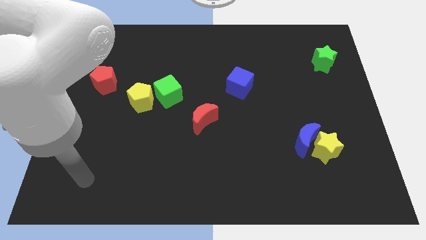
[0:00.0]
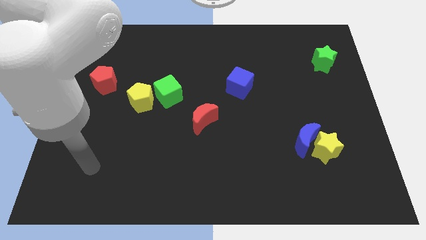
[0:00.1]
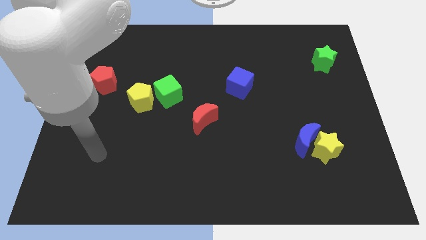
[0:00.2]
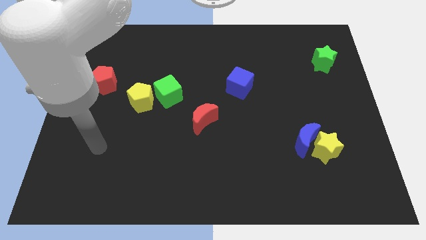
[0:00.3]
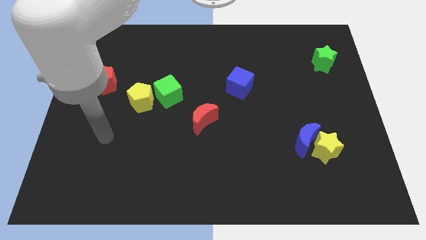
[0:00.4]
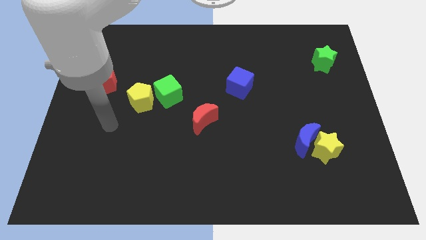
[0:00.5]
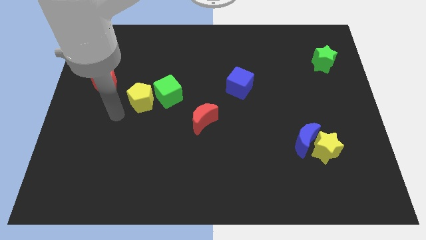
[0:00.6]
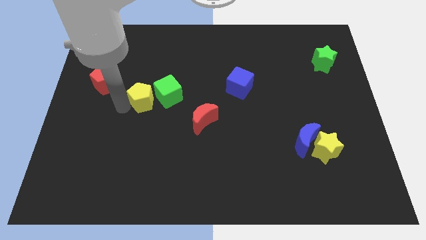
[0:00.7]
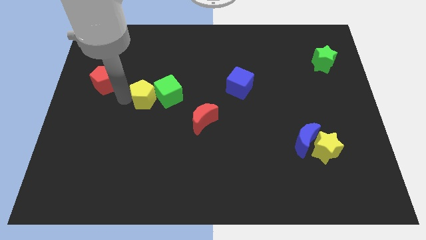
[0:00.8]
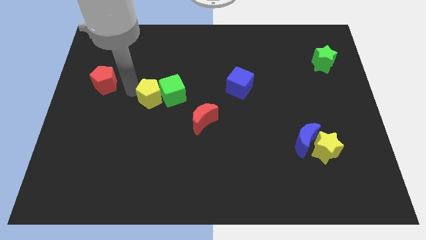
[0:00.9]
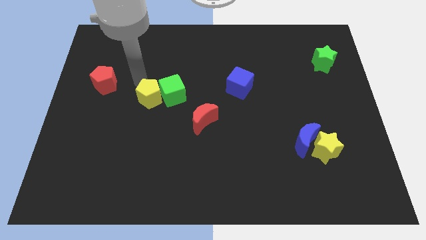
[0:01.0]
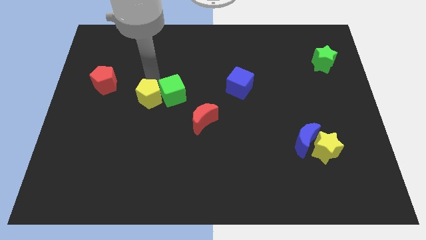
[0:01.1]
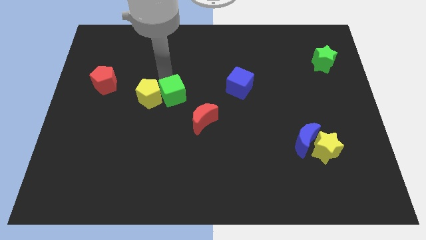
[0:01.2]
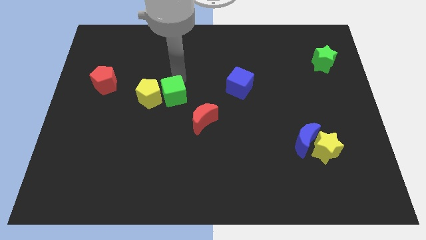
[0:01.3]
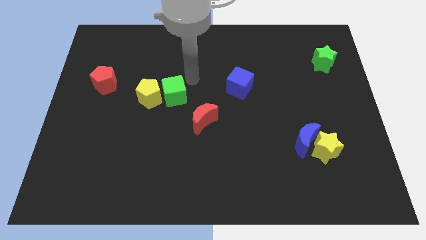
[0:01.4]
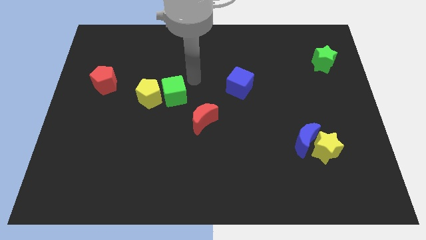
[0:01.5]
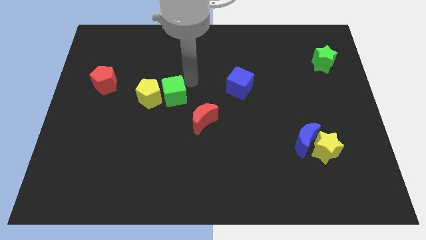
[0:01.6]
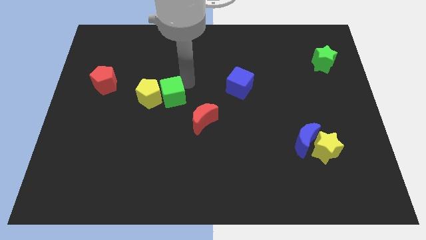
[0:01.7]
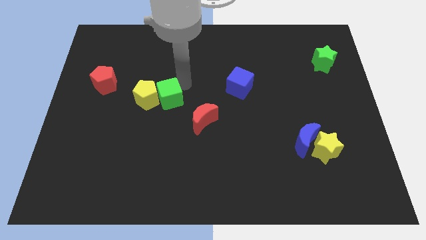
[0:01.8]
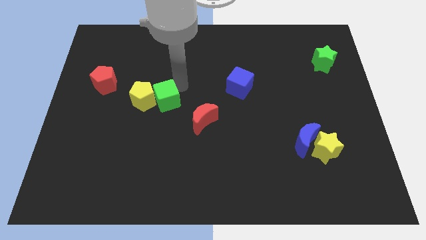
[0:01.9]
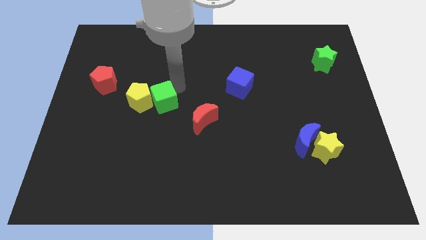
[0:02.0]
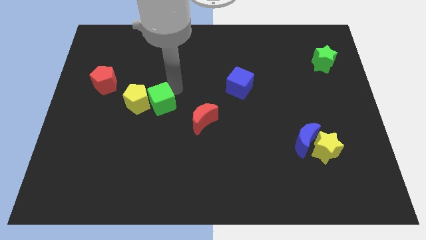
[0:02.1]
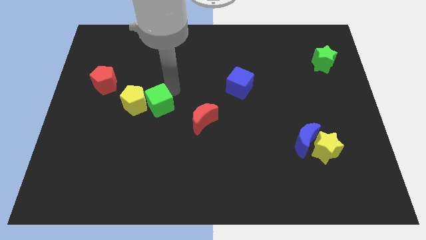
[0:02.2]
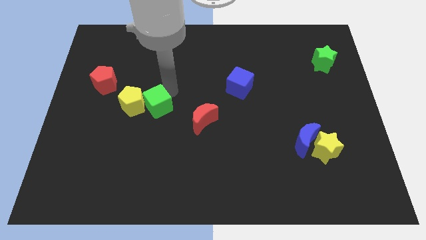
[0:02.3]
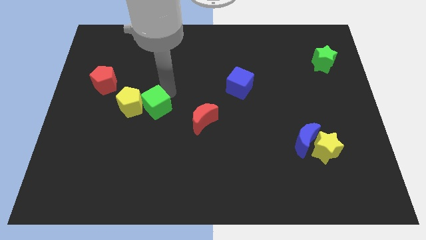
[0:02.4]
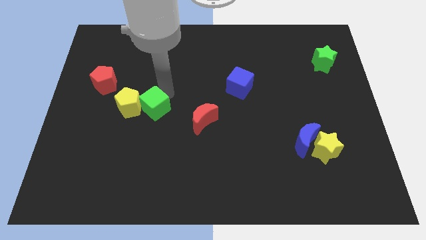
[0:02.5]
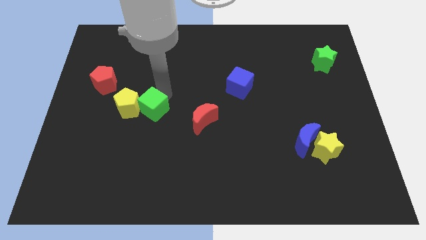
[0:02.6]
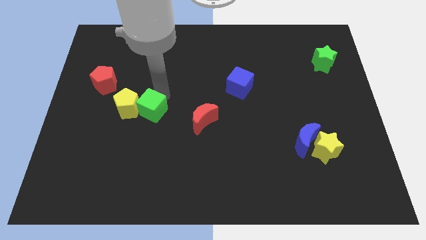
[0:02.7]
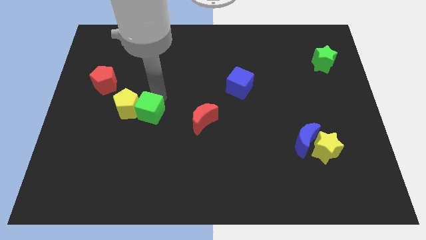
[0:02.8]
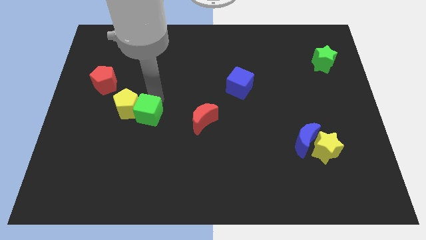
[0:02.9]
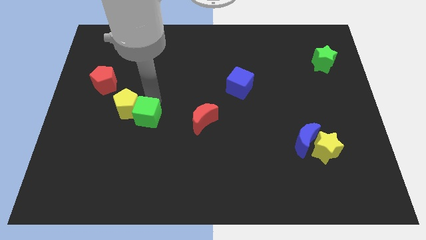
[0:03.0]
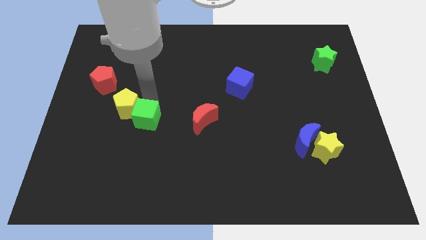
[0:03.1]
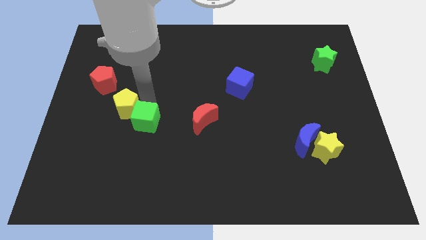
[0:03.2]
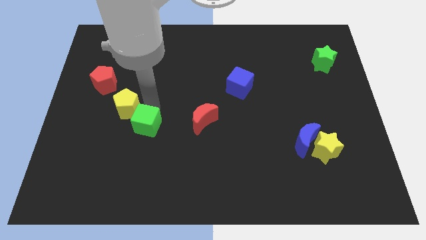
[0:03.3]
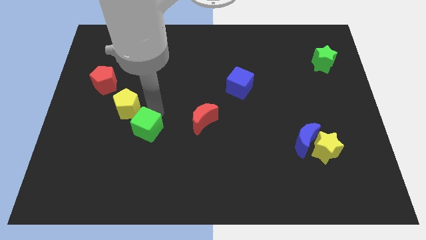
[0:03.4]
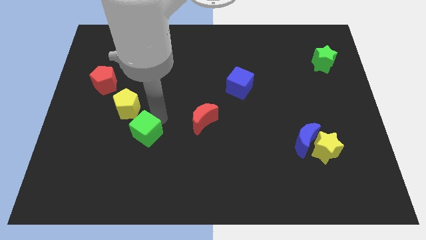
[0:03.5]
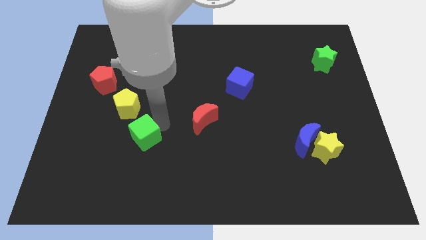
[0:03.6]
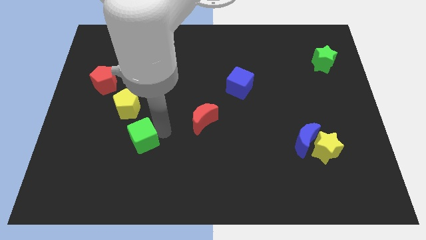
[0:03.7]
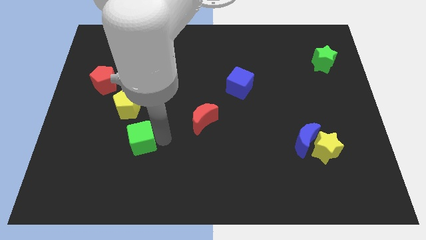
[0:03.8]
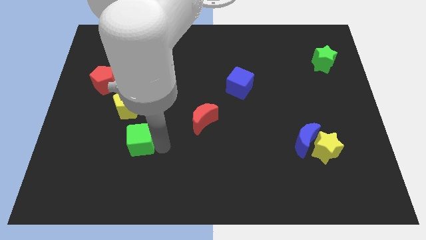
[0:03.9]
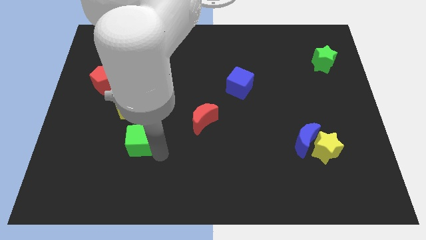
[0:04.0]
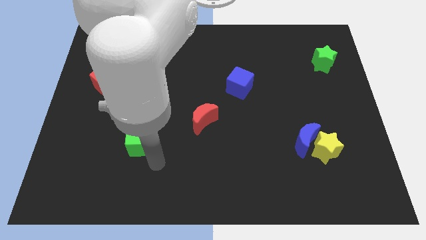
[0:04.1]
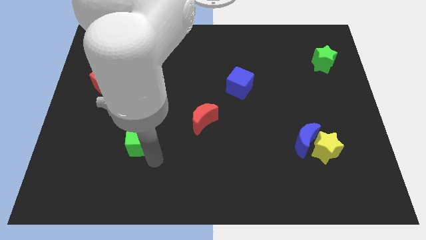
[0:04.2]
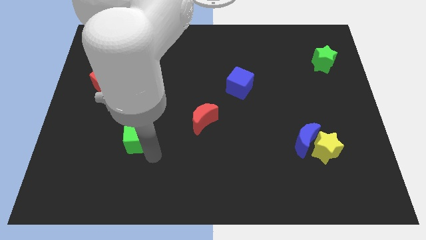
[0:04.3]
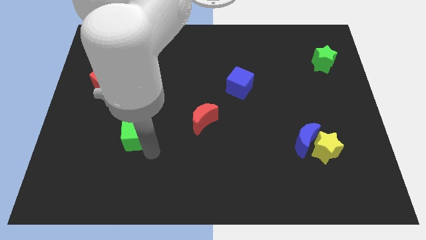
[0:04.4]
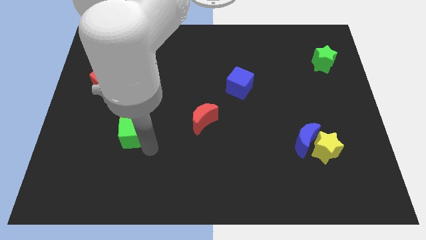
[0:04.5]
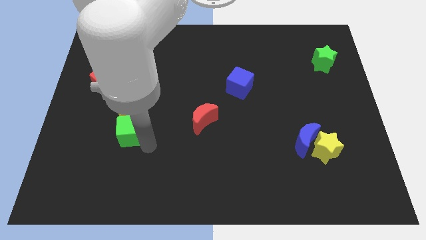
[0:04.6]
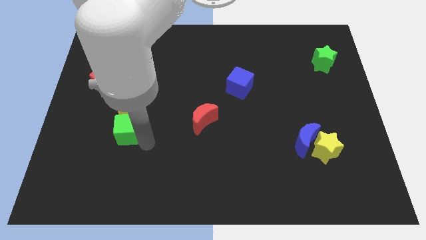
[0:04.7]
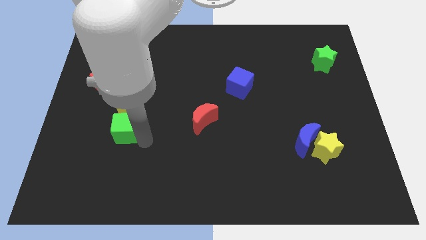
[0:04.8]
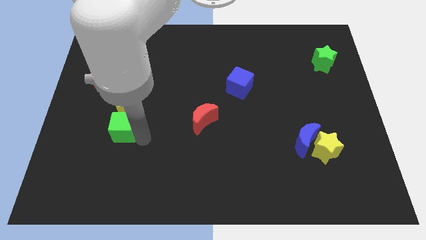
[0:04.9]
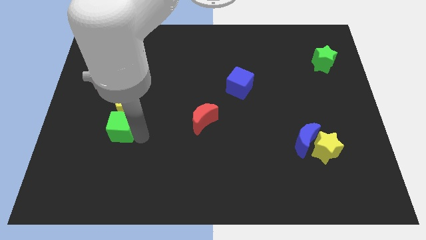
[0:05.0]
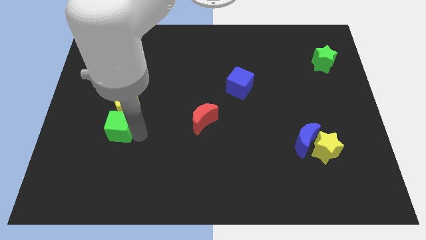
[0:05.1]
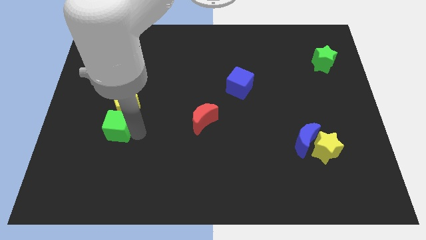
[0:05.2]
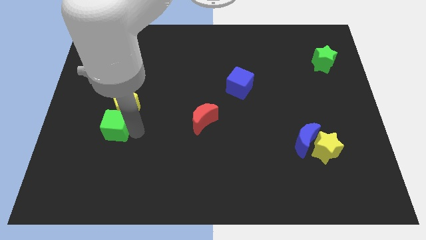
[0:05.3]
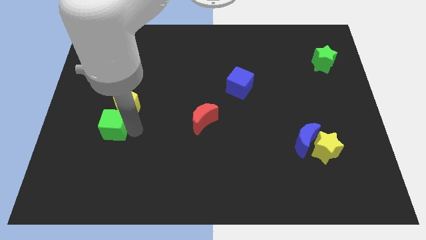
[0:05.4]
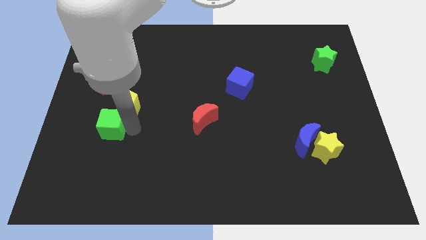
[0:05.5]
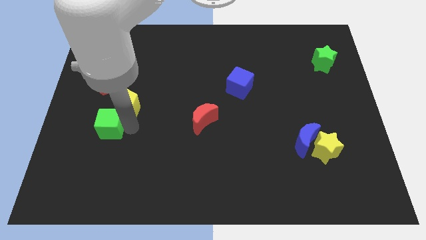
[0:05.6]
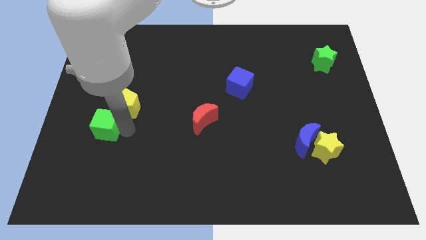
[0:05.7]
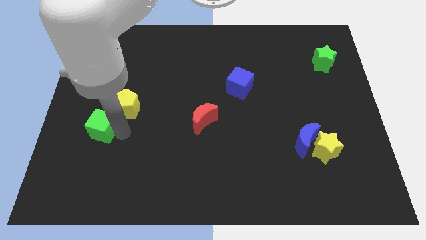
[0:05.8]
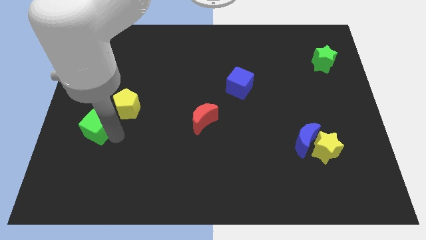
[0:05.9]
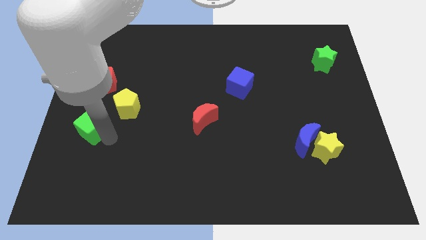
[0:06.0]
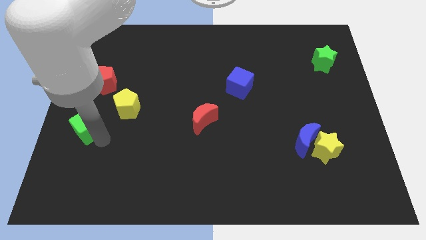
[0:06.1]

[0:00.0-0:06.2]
push the green cube to the left side

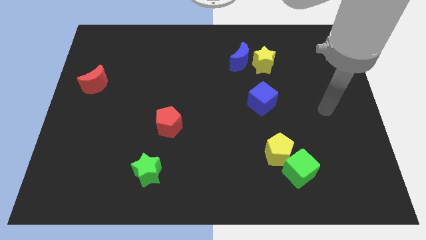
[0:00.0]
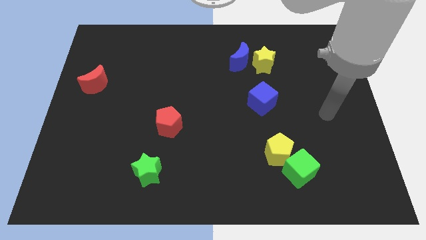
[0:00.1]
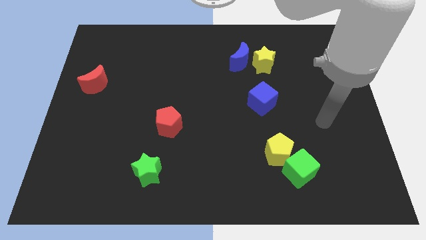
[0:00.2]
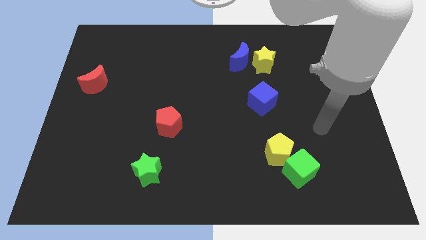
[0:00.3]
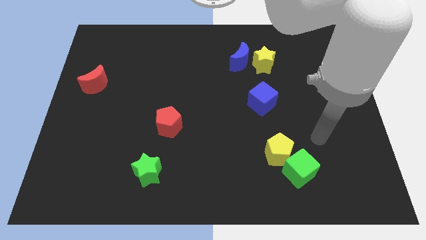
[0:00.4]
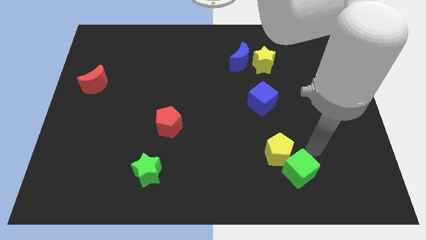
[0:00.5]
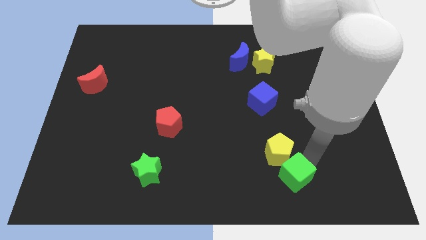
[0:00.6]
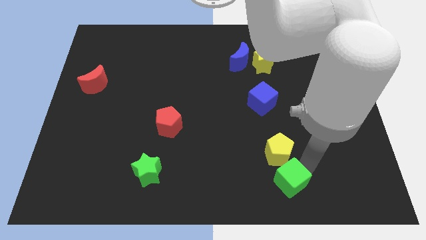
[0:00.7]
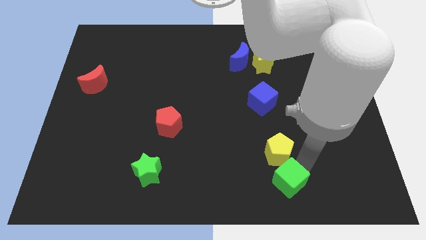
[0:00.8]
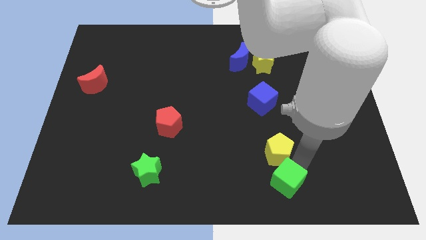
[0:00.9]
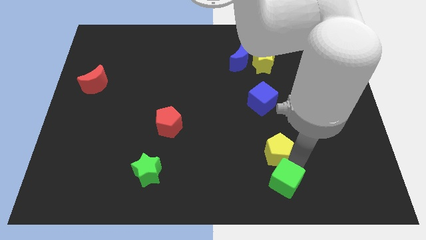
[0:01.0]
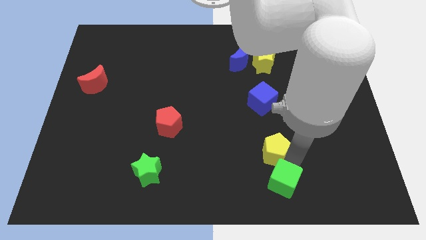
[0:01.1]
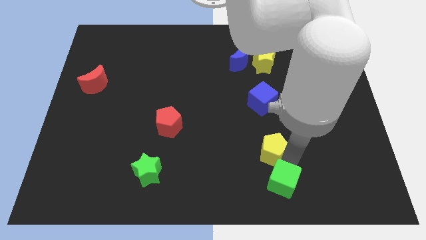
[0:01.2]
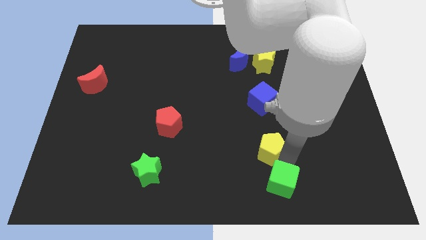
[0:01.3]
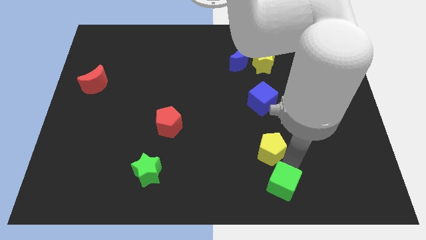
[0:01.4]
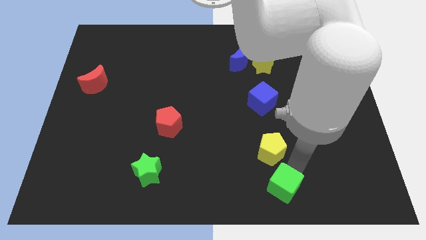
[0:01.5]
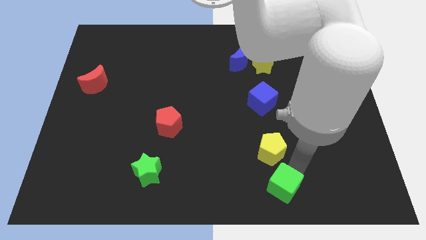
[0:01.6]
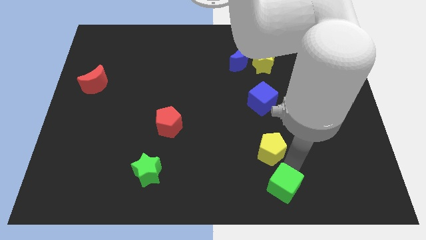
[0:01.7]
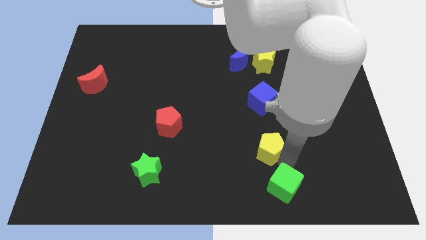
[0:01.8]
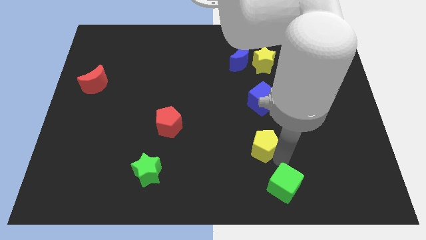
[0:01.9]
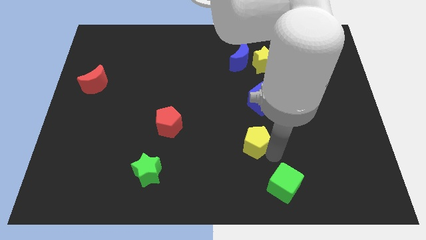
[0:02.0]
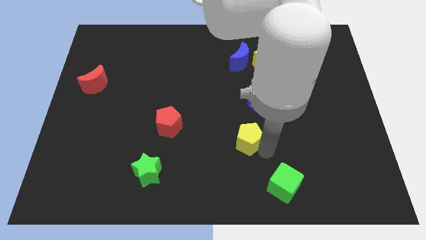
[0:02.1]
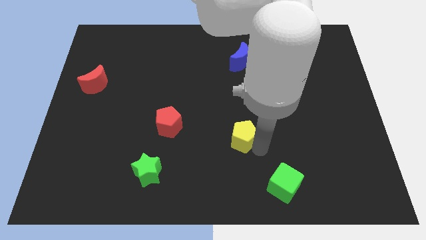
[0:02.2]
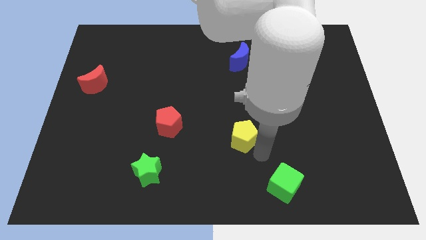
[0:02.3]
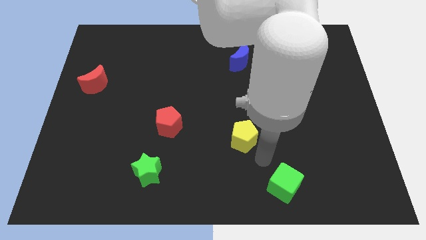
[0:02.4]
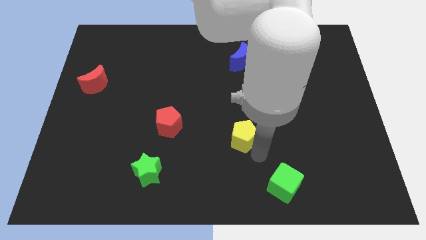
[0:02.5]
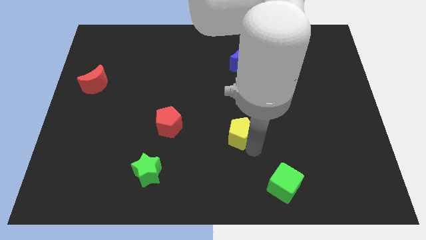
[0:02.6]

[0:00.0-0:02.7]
push the yellow pentagon to the middle of the board
